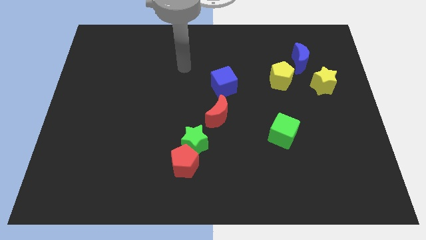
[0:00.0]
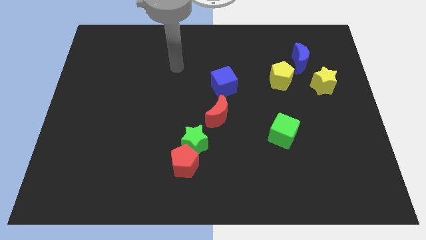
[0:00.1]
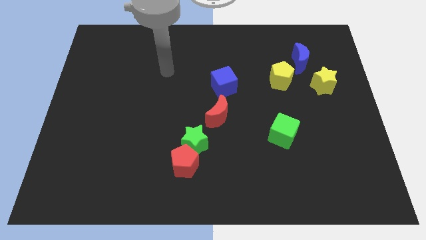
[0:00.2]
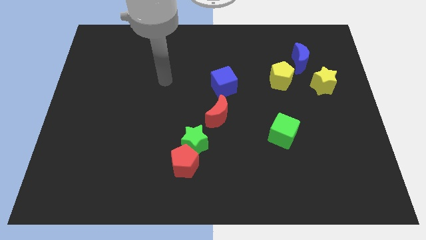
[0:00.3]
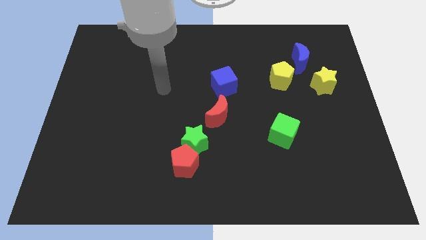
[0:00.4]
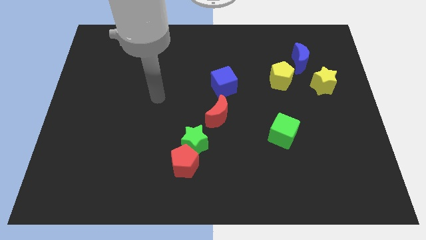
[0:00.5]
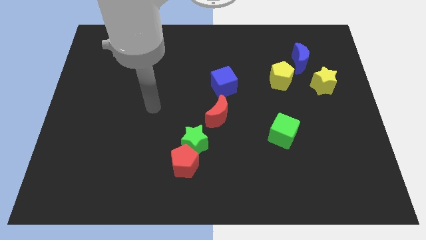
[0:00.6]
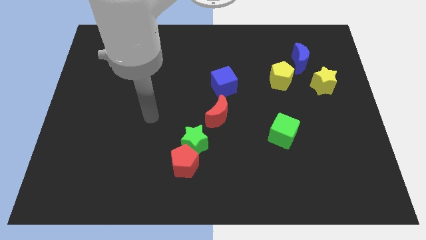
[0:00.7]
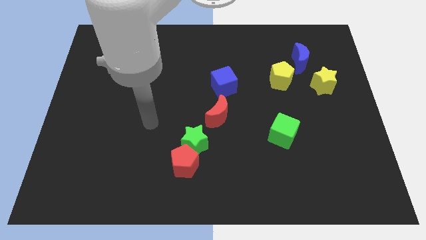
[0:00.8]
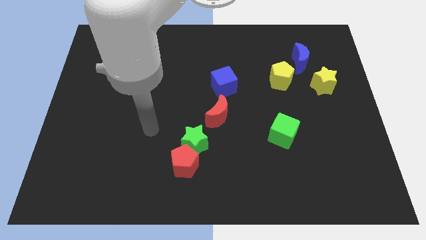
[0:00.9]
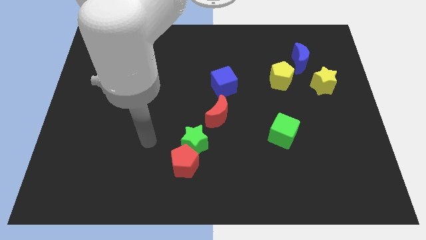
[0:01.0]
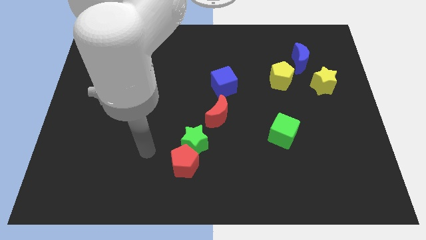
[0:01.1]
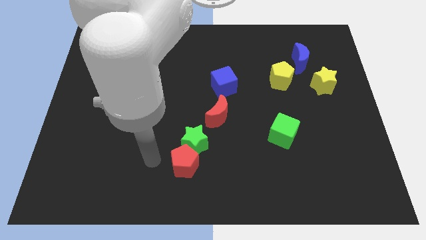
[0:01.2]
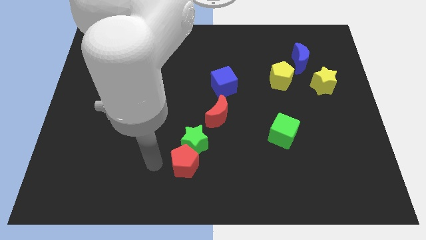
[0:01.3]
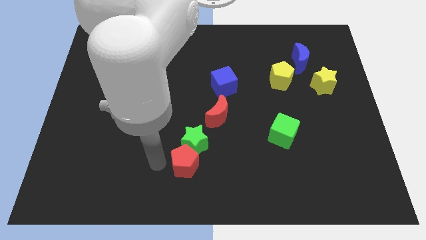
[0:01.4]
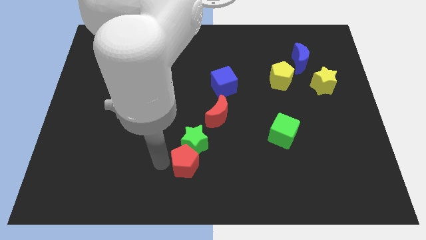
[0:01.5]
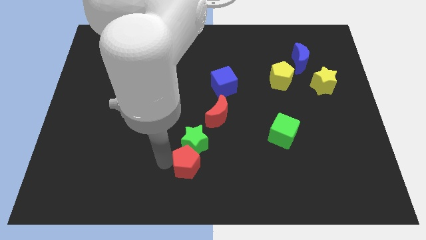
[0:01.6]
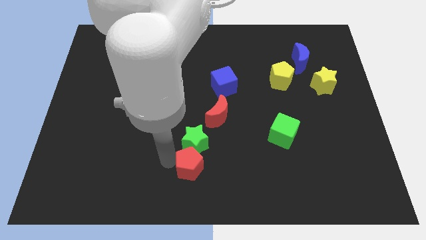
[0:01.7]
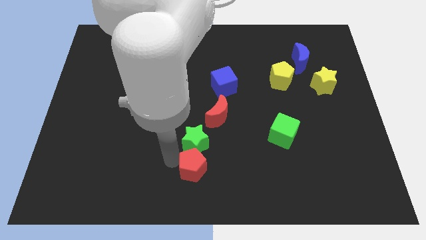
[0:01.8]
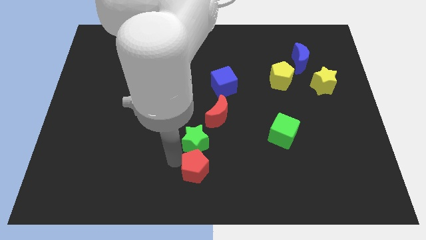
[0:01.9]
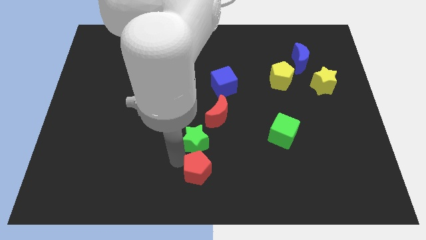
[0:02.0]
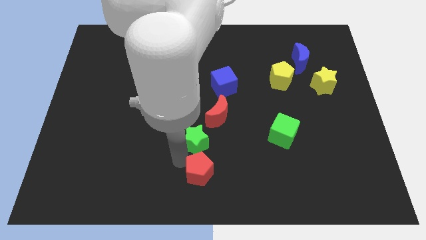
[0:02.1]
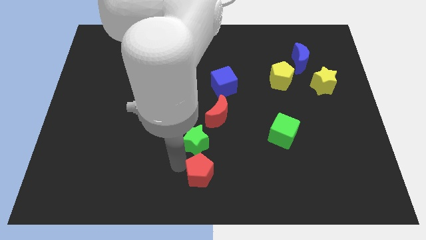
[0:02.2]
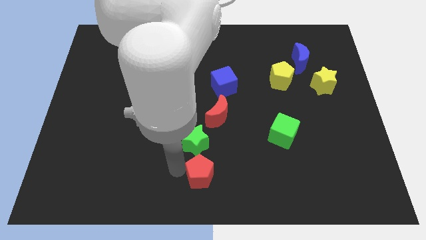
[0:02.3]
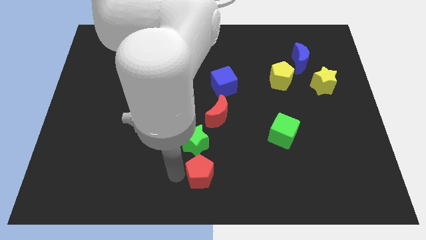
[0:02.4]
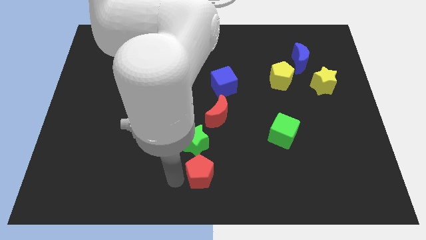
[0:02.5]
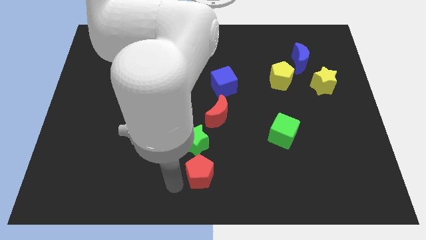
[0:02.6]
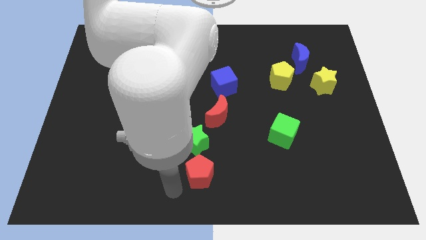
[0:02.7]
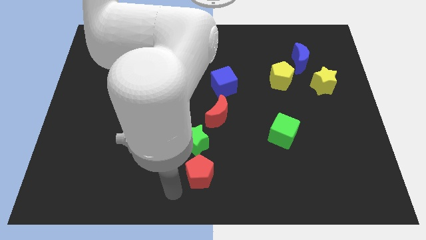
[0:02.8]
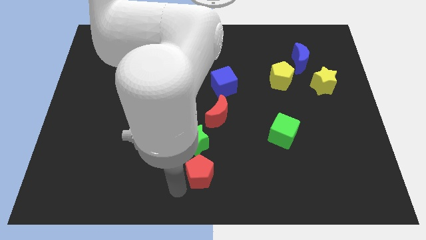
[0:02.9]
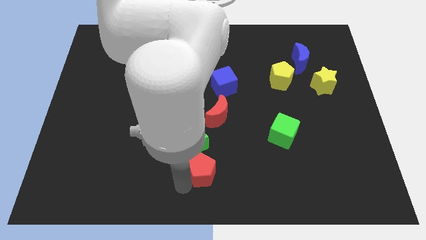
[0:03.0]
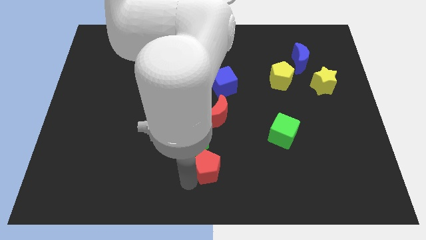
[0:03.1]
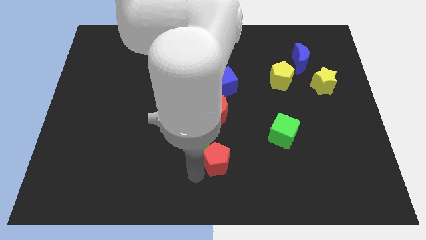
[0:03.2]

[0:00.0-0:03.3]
slightly move the red pentagon right

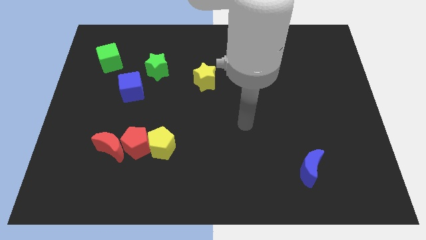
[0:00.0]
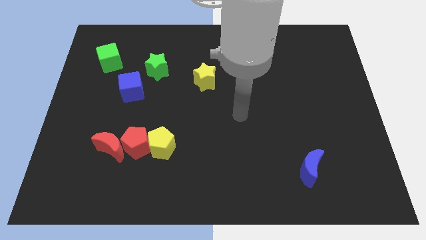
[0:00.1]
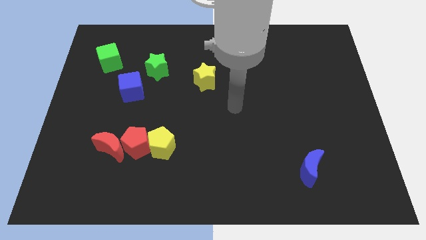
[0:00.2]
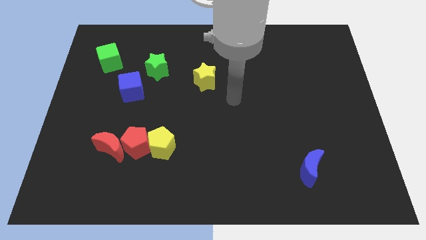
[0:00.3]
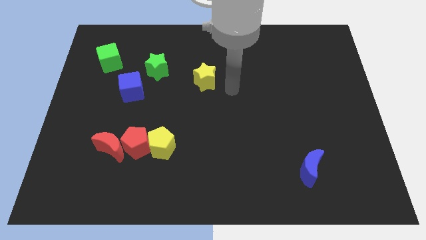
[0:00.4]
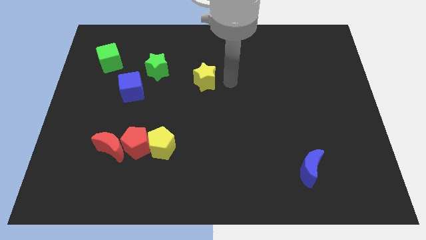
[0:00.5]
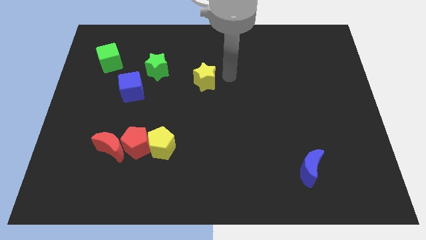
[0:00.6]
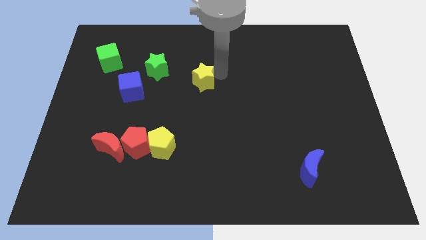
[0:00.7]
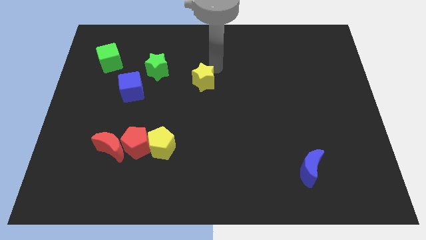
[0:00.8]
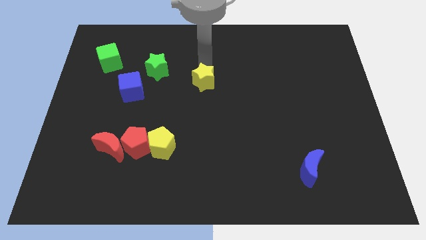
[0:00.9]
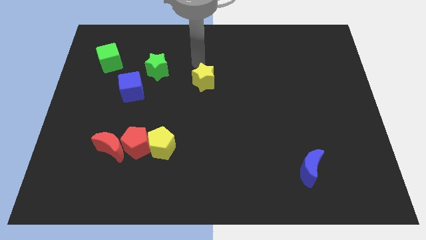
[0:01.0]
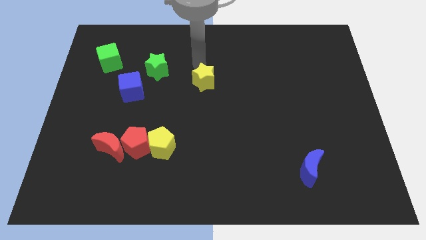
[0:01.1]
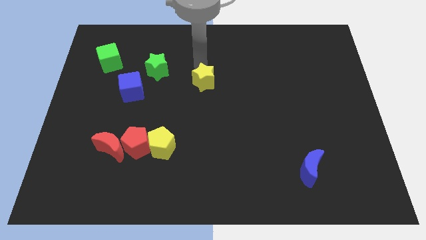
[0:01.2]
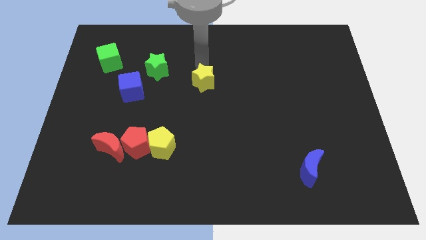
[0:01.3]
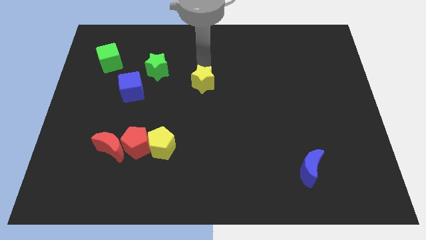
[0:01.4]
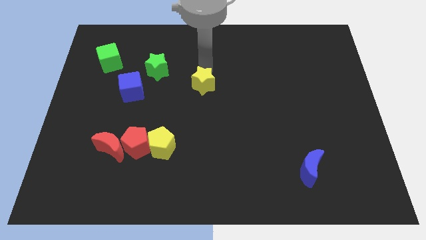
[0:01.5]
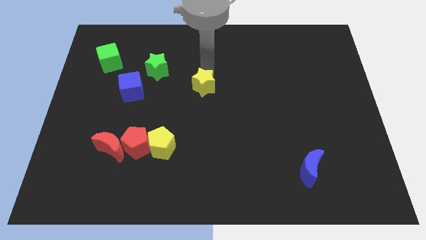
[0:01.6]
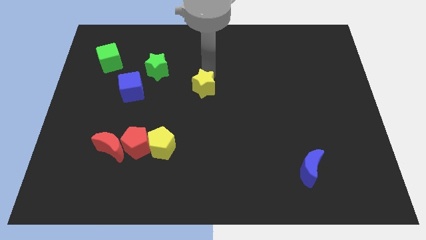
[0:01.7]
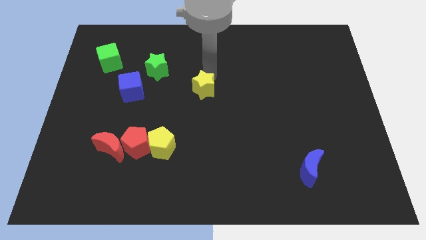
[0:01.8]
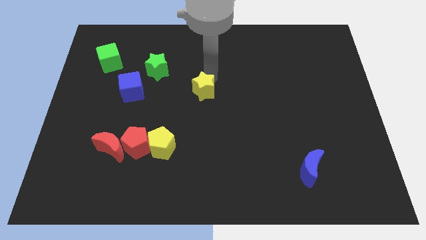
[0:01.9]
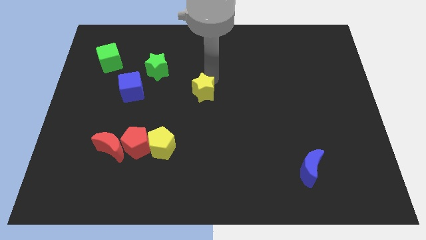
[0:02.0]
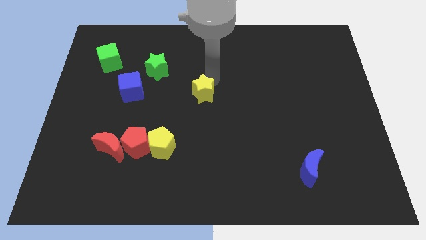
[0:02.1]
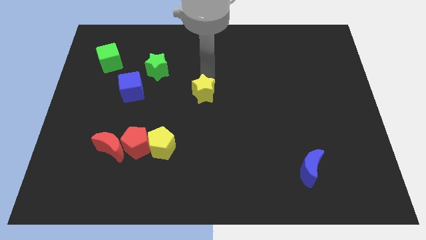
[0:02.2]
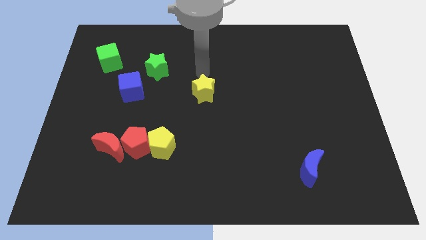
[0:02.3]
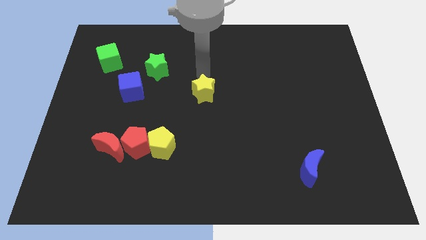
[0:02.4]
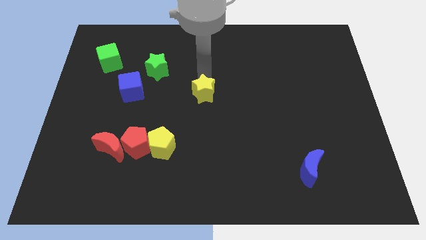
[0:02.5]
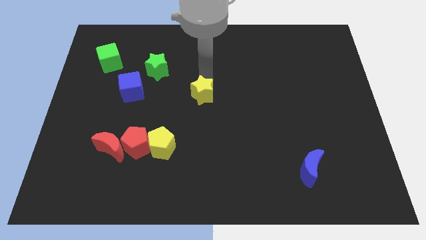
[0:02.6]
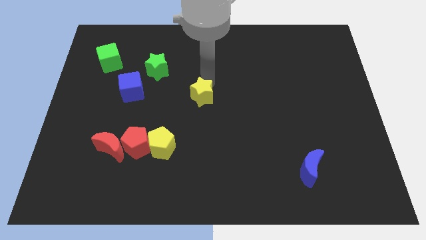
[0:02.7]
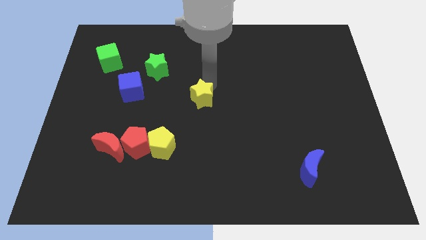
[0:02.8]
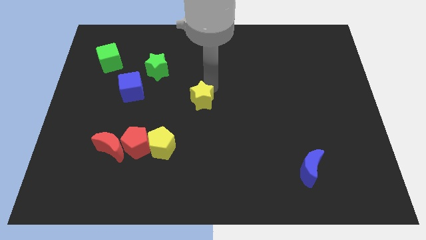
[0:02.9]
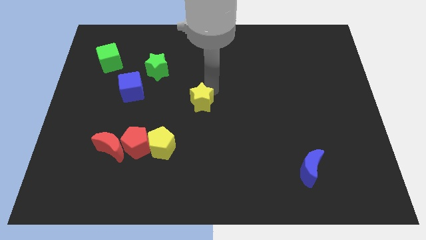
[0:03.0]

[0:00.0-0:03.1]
push the yellow star somewhat down

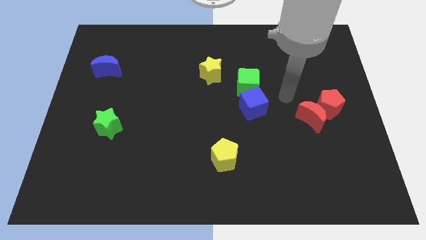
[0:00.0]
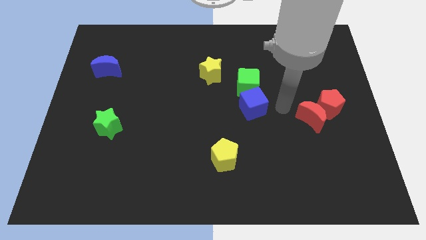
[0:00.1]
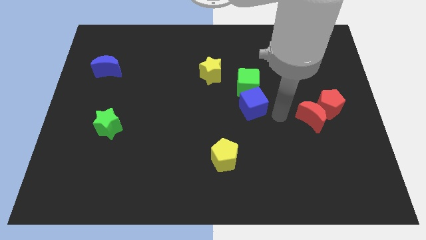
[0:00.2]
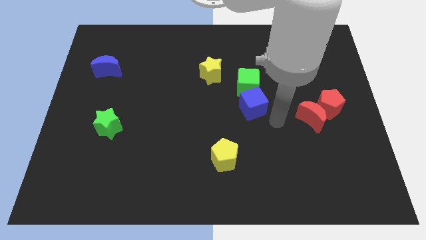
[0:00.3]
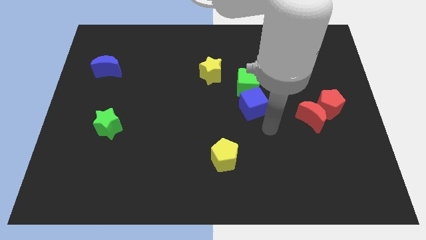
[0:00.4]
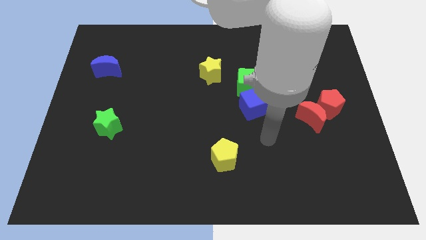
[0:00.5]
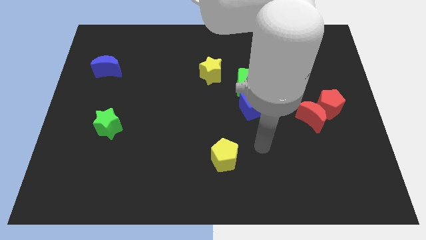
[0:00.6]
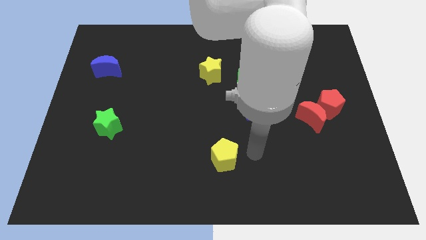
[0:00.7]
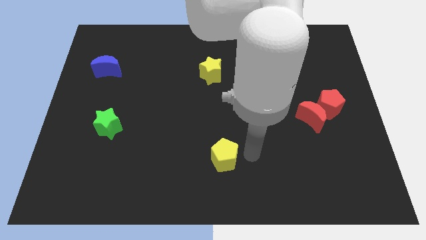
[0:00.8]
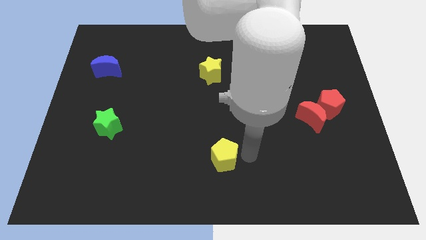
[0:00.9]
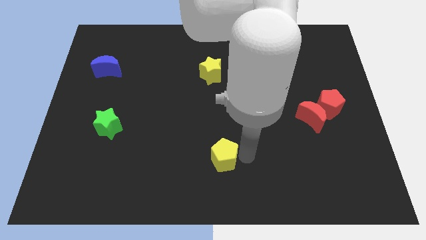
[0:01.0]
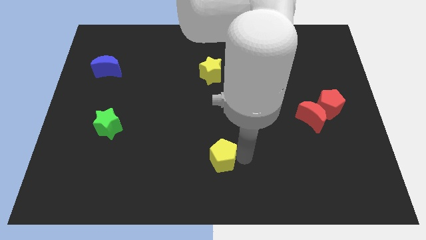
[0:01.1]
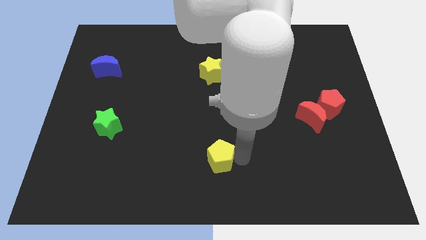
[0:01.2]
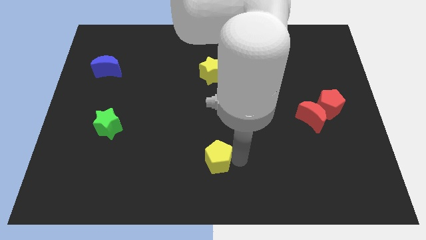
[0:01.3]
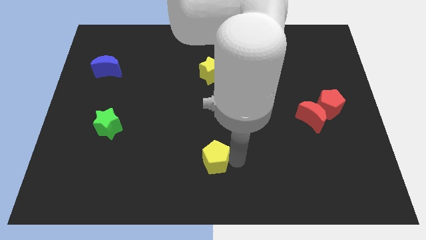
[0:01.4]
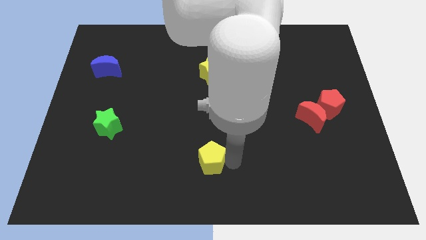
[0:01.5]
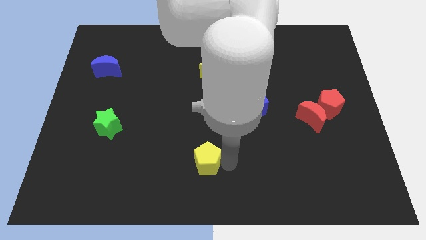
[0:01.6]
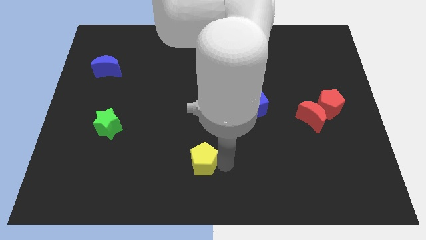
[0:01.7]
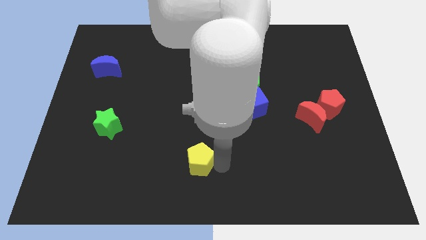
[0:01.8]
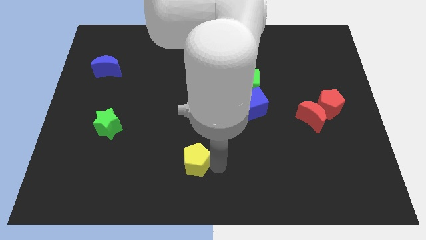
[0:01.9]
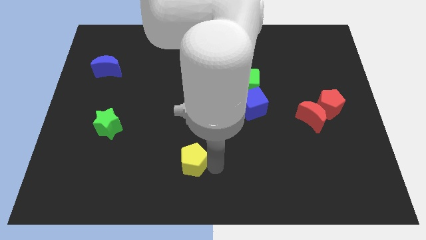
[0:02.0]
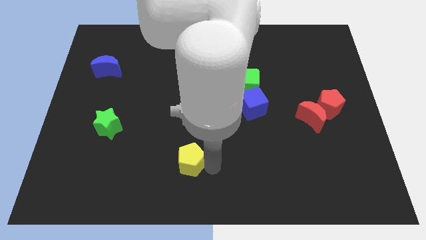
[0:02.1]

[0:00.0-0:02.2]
slide the yellow pentagon a little bit to the left
